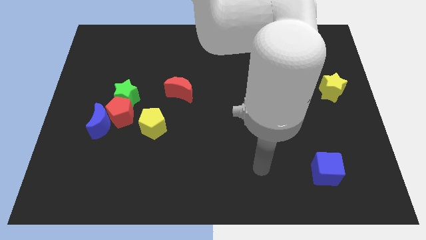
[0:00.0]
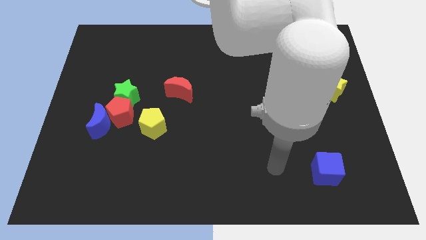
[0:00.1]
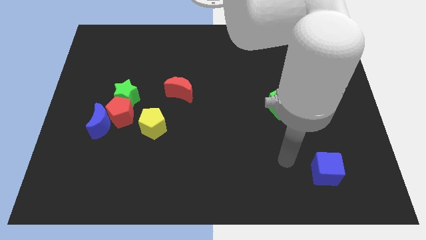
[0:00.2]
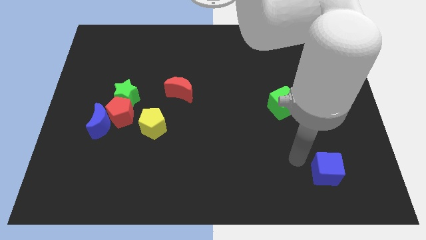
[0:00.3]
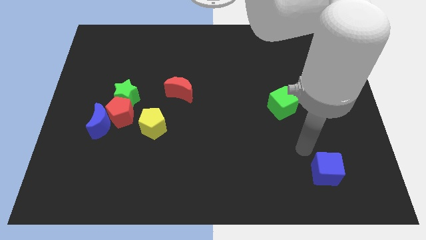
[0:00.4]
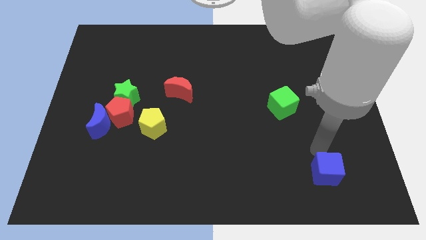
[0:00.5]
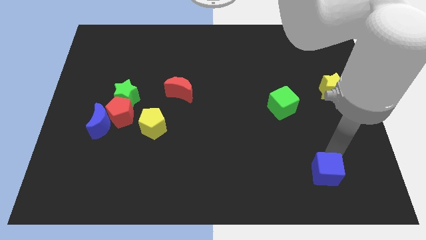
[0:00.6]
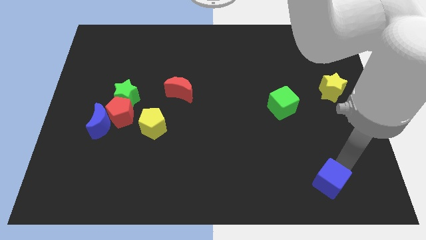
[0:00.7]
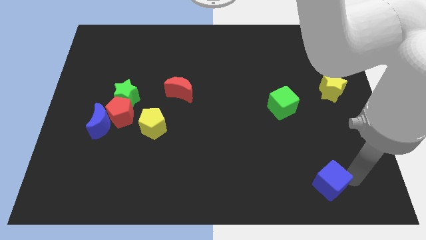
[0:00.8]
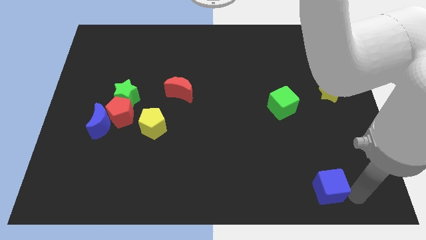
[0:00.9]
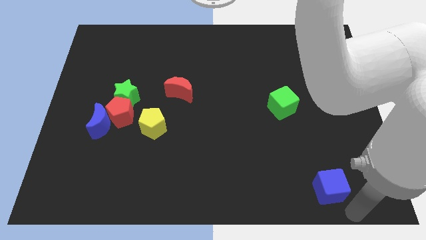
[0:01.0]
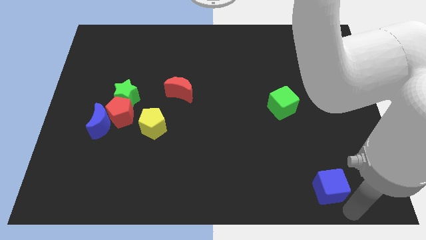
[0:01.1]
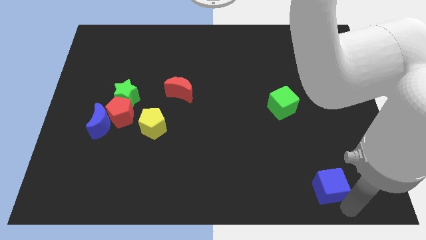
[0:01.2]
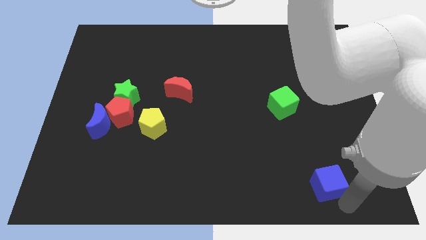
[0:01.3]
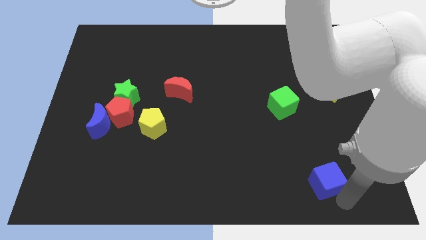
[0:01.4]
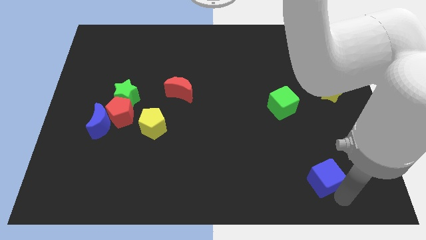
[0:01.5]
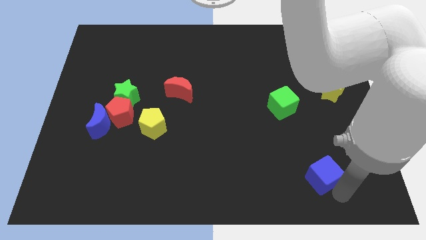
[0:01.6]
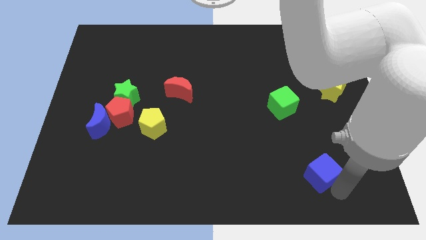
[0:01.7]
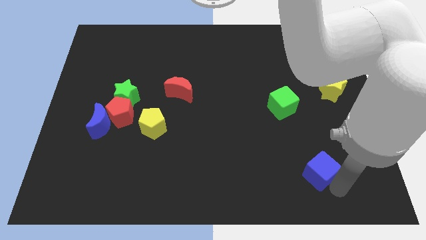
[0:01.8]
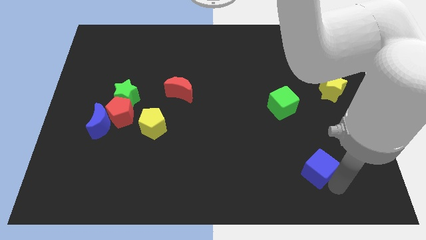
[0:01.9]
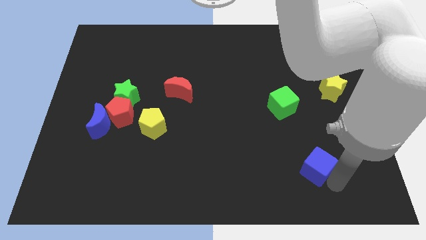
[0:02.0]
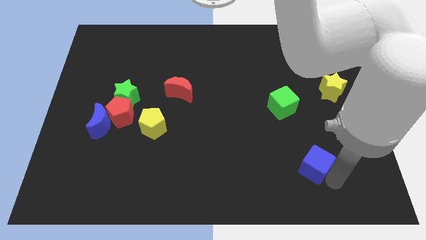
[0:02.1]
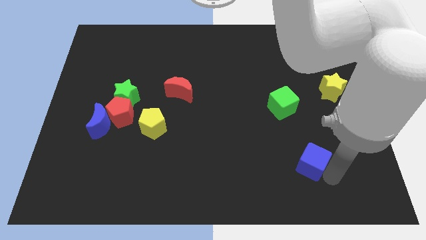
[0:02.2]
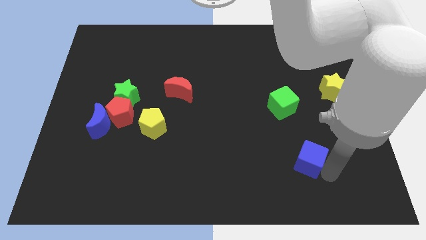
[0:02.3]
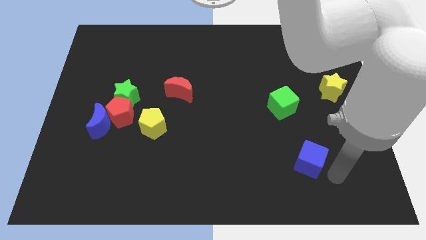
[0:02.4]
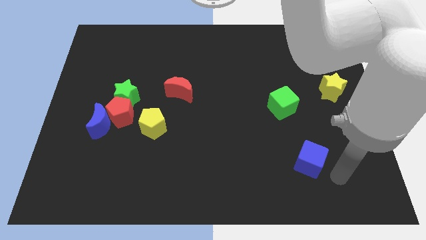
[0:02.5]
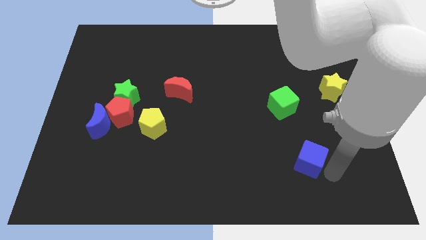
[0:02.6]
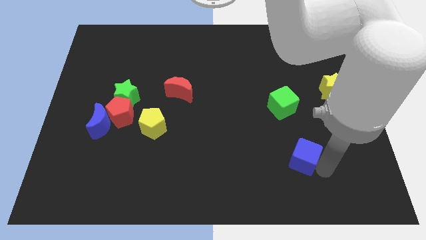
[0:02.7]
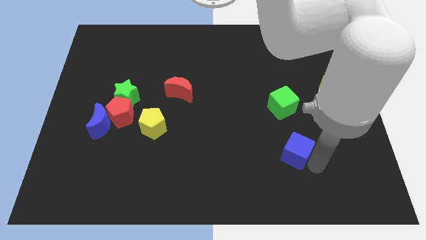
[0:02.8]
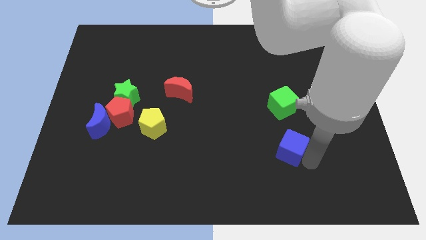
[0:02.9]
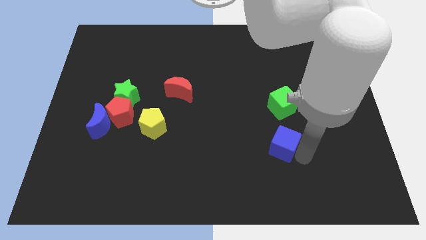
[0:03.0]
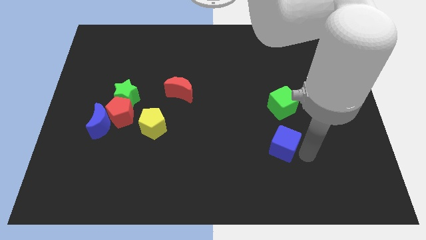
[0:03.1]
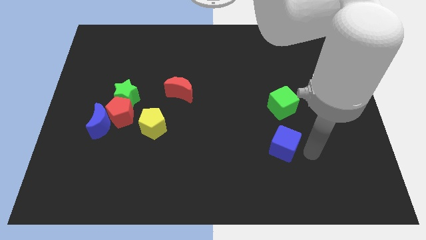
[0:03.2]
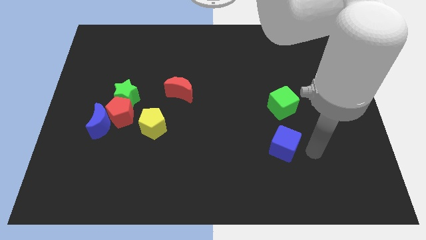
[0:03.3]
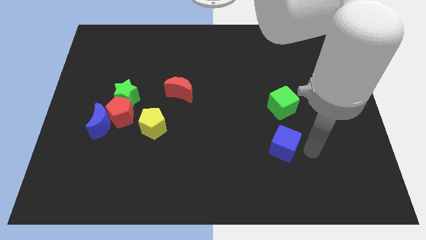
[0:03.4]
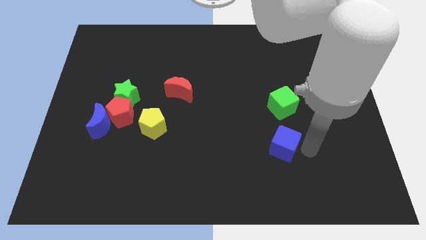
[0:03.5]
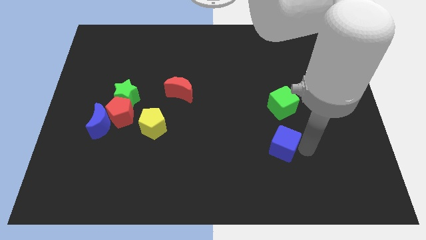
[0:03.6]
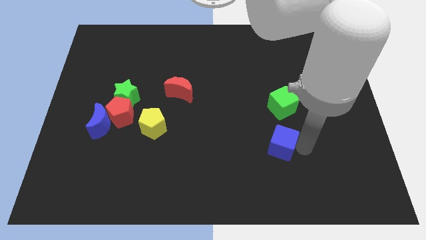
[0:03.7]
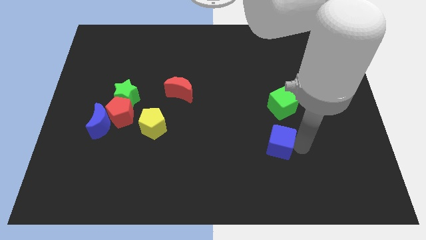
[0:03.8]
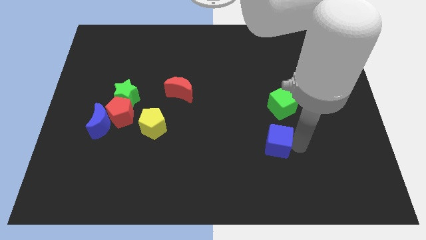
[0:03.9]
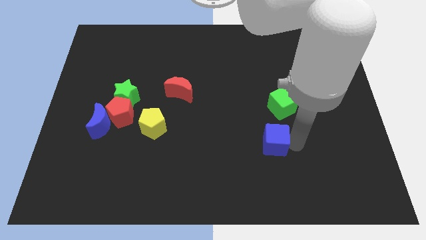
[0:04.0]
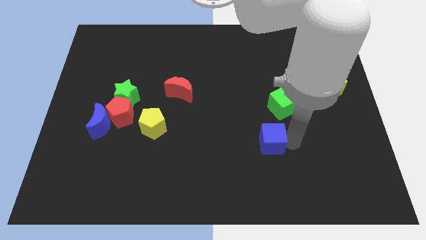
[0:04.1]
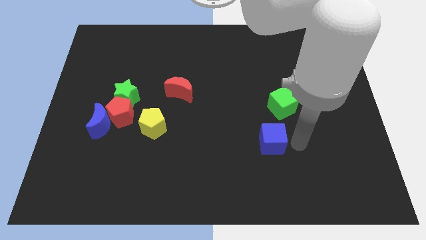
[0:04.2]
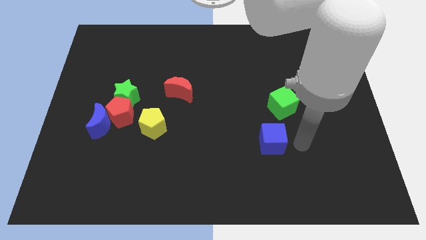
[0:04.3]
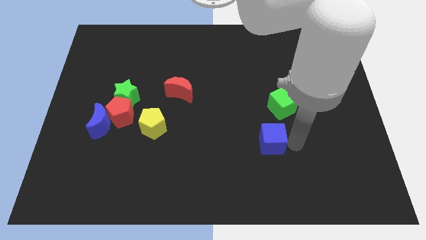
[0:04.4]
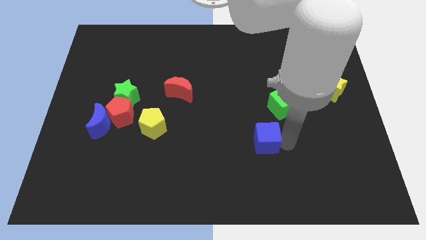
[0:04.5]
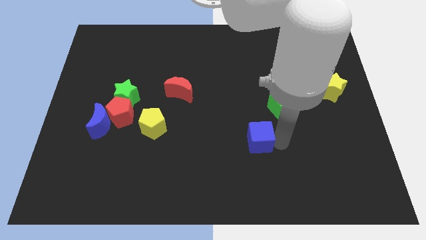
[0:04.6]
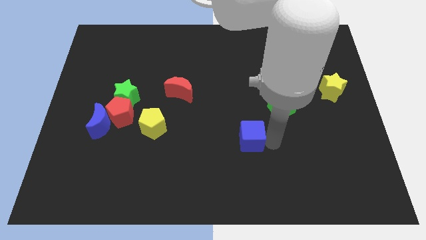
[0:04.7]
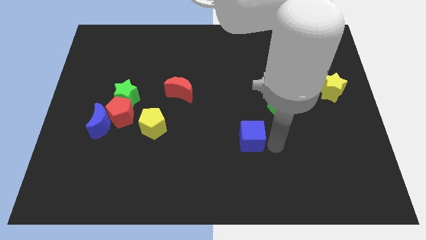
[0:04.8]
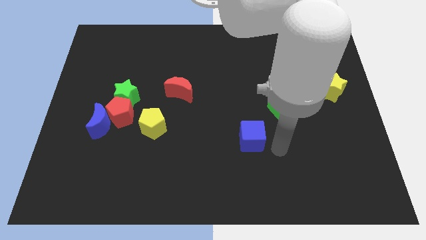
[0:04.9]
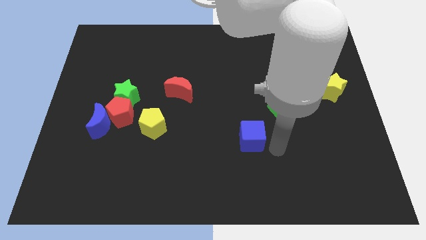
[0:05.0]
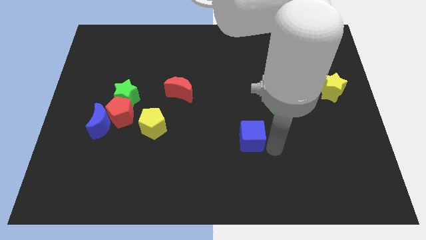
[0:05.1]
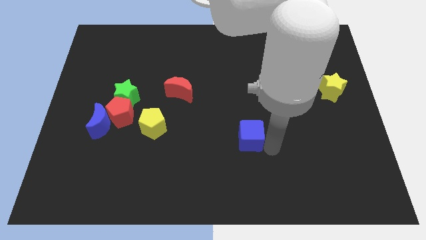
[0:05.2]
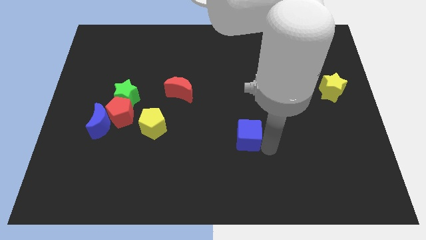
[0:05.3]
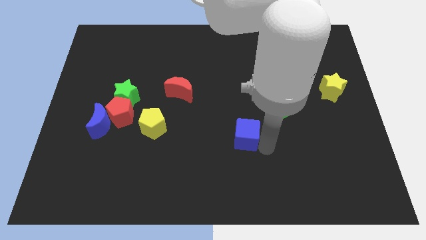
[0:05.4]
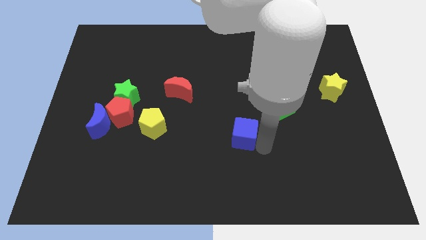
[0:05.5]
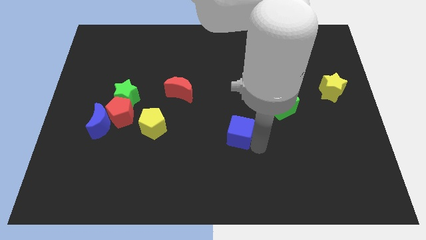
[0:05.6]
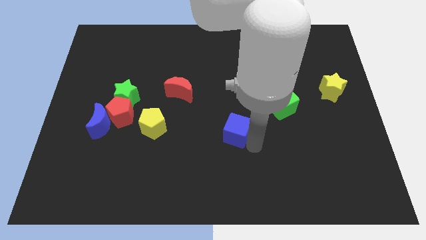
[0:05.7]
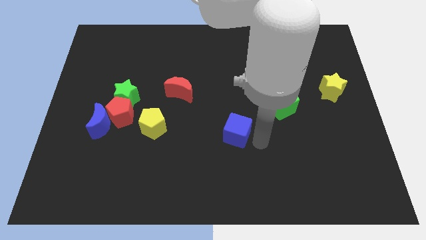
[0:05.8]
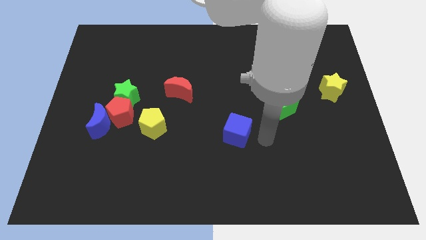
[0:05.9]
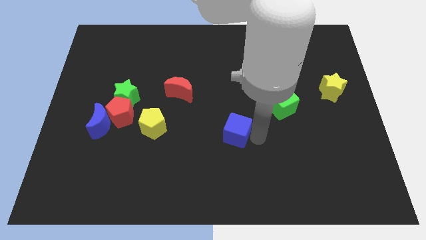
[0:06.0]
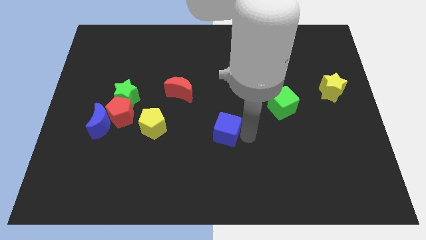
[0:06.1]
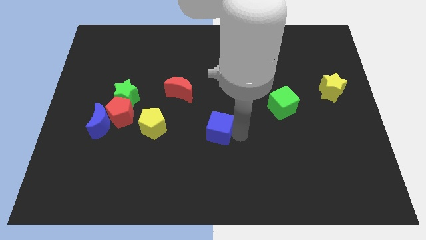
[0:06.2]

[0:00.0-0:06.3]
move the blue cube just right of the yellow pentagon

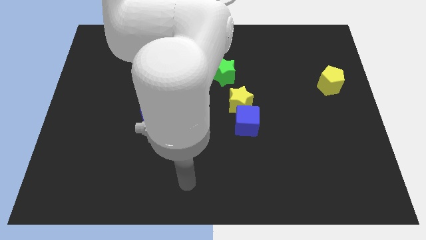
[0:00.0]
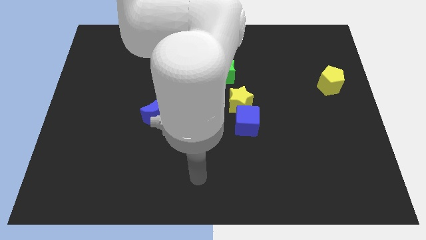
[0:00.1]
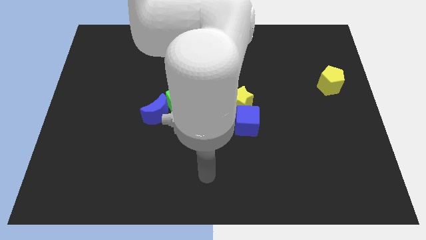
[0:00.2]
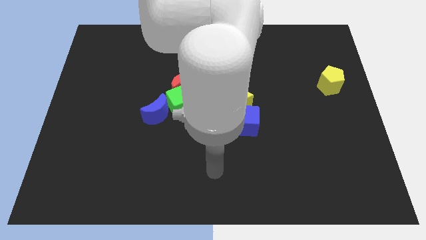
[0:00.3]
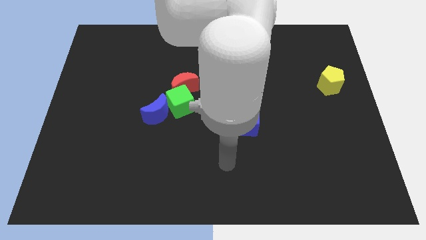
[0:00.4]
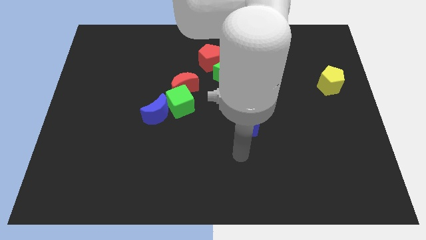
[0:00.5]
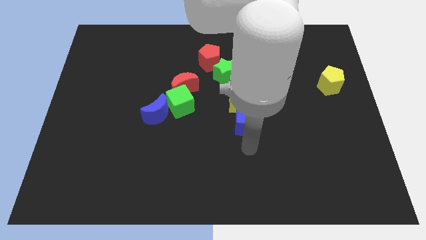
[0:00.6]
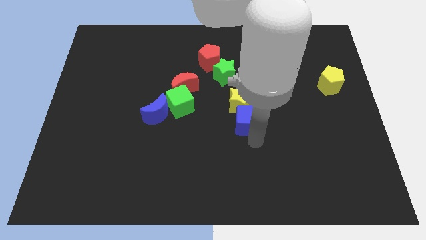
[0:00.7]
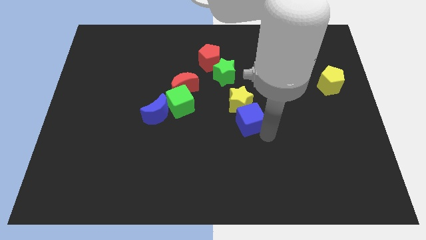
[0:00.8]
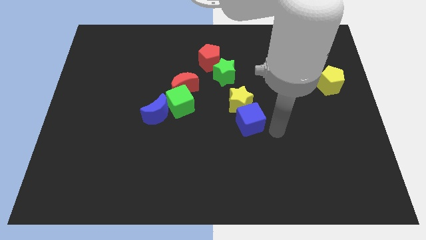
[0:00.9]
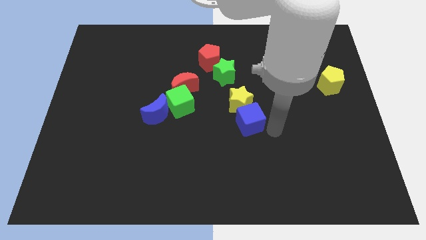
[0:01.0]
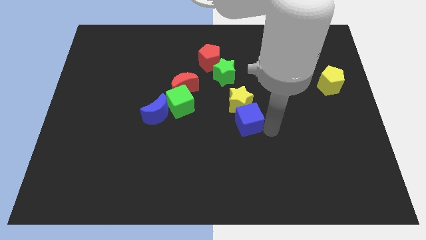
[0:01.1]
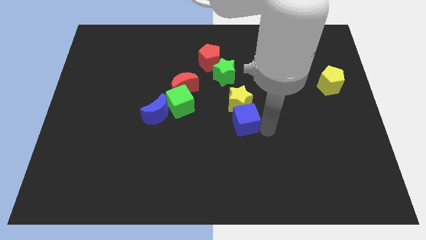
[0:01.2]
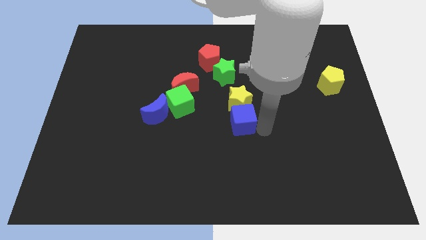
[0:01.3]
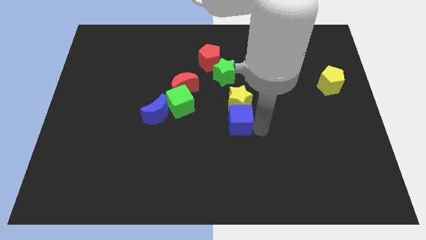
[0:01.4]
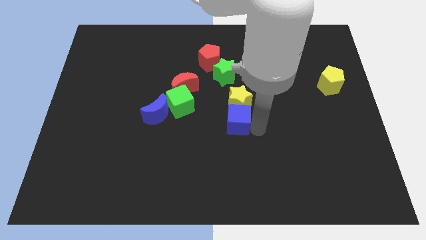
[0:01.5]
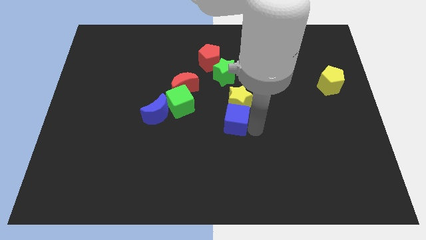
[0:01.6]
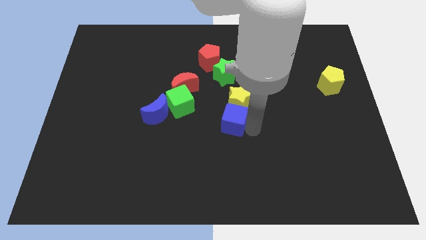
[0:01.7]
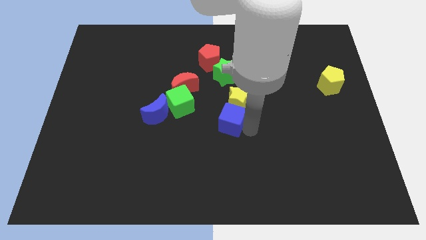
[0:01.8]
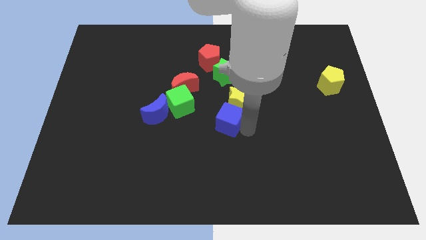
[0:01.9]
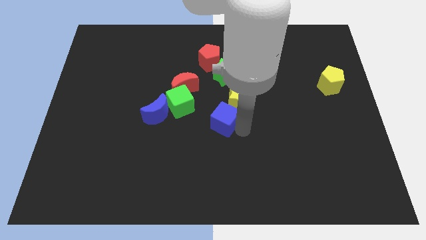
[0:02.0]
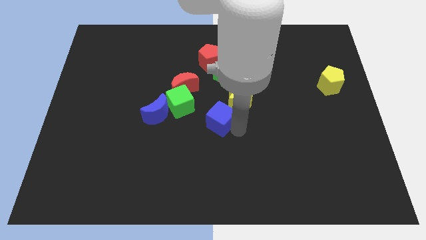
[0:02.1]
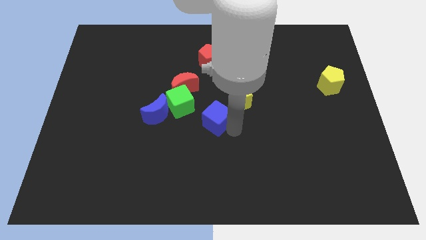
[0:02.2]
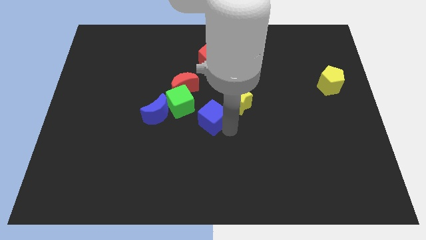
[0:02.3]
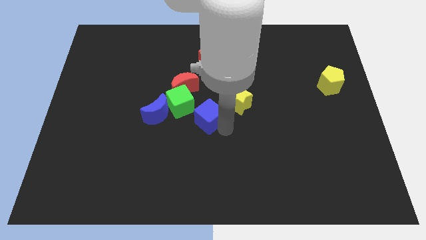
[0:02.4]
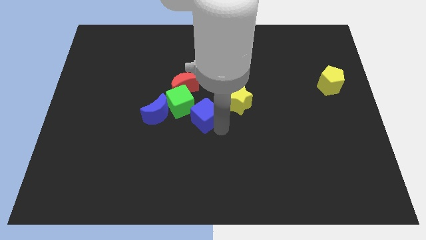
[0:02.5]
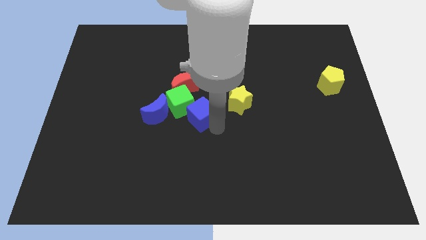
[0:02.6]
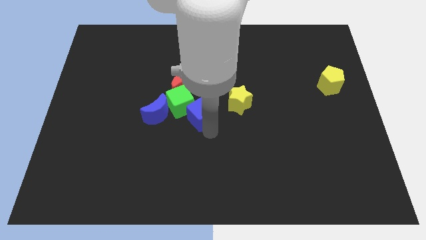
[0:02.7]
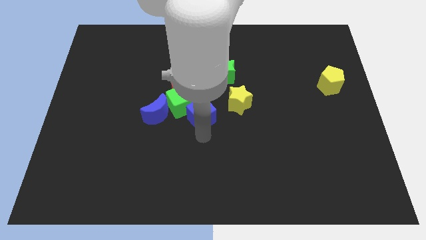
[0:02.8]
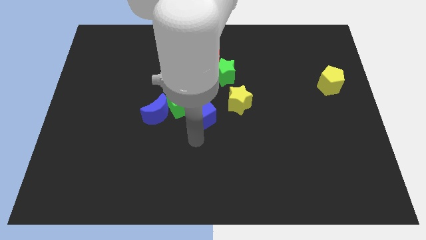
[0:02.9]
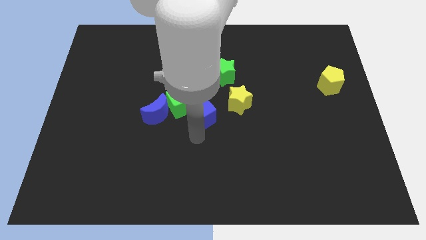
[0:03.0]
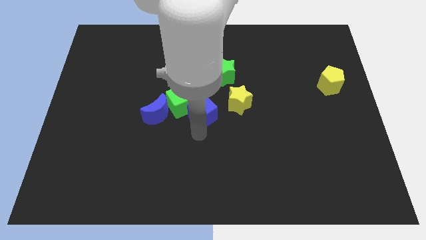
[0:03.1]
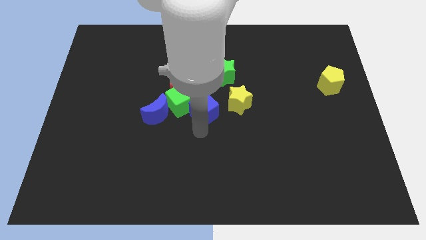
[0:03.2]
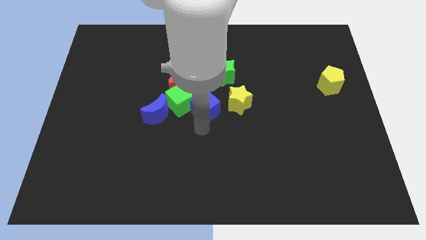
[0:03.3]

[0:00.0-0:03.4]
slide the blue cube below the red pentagon
